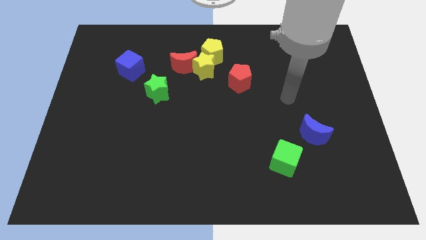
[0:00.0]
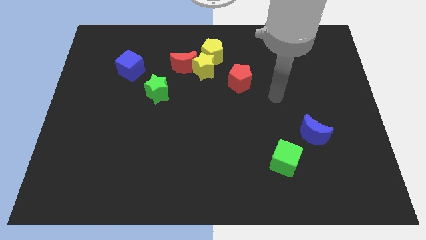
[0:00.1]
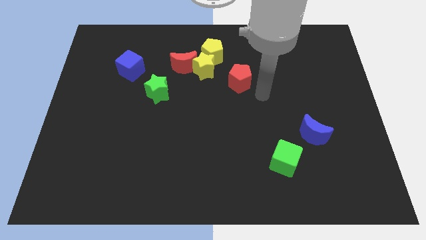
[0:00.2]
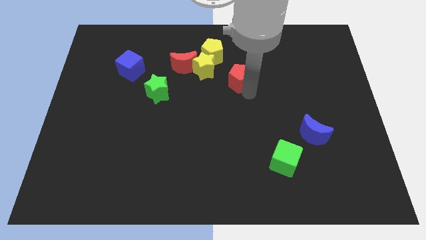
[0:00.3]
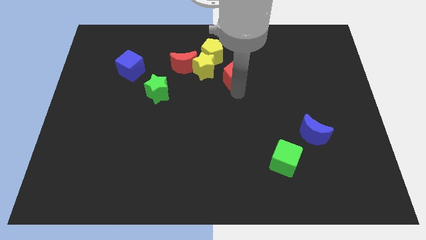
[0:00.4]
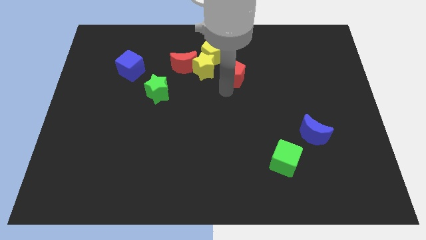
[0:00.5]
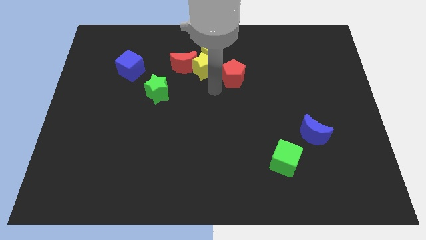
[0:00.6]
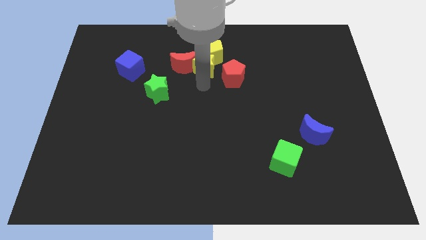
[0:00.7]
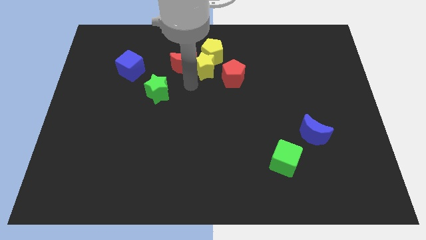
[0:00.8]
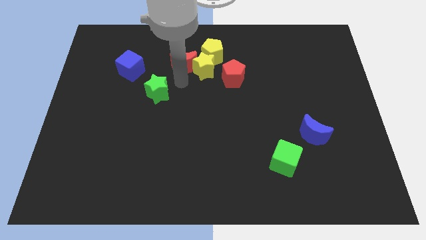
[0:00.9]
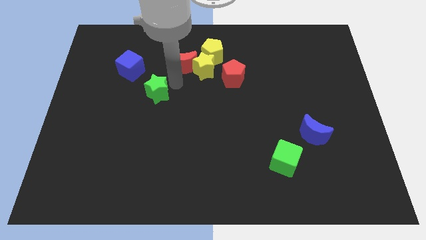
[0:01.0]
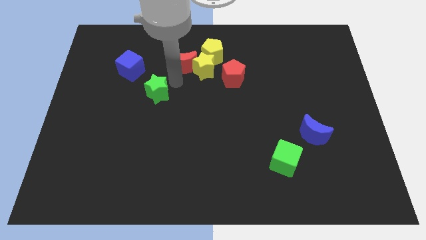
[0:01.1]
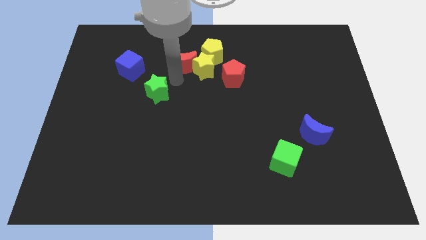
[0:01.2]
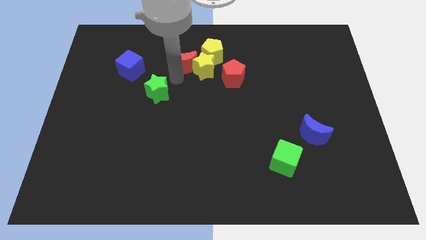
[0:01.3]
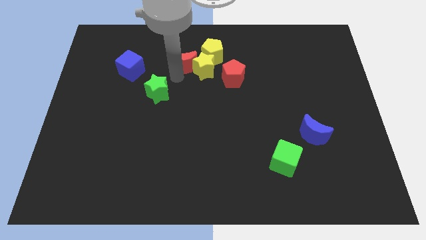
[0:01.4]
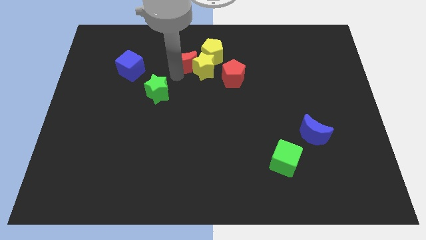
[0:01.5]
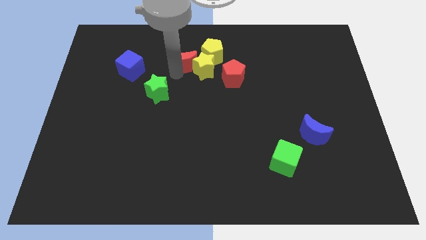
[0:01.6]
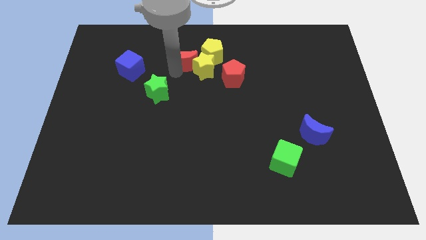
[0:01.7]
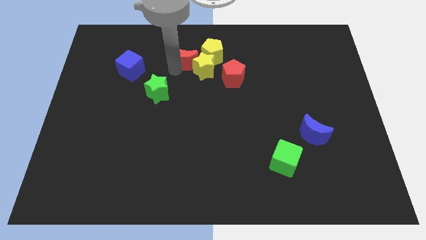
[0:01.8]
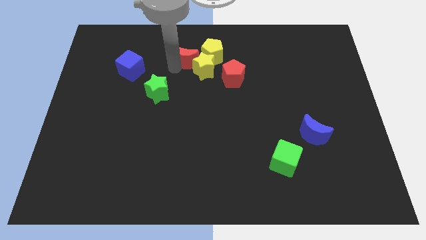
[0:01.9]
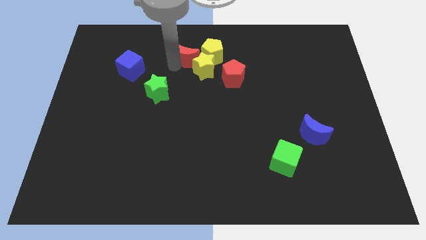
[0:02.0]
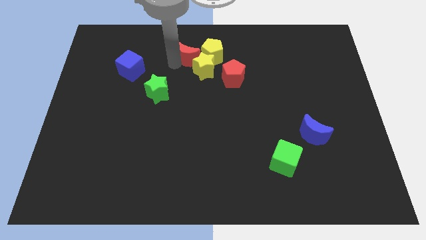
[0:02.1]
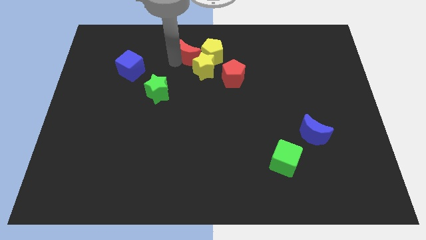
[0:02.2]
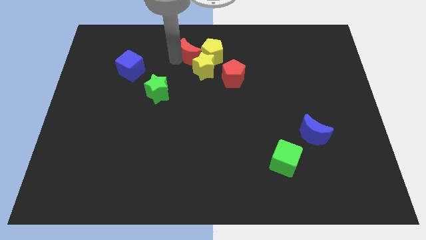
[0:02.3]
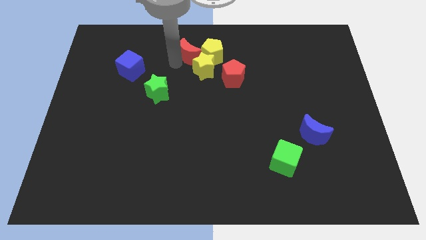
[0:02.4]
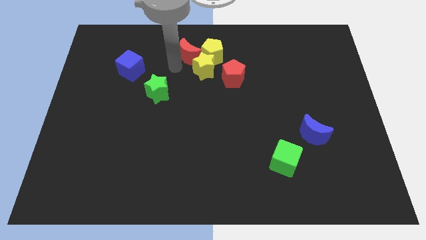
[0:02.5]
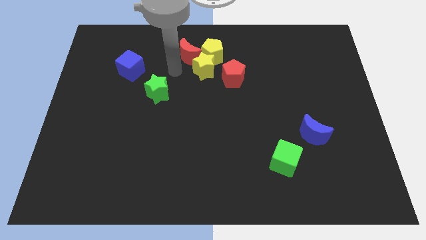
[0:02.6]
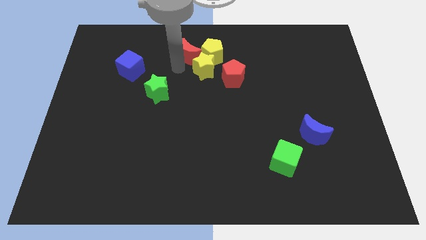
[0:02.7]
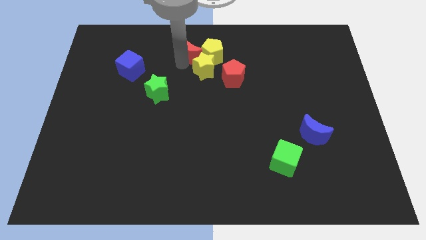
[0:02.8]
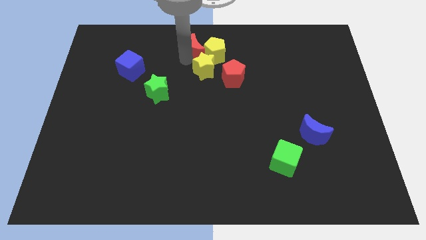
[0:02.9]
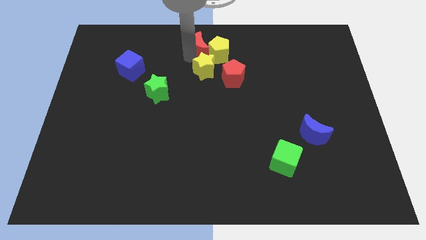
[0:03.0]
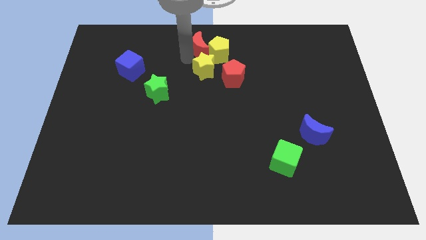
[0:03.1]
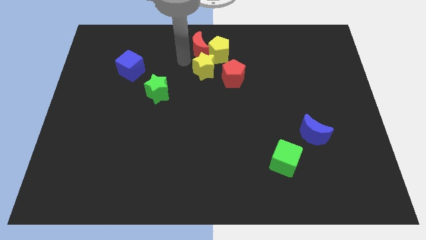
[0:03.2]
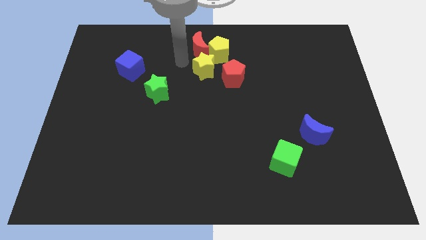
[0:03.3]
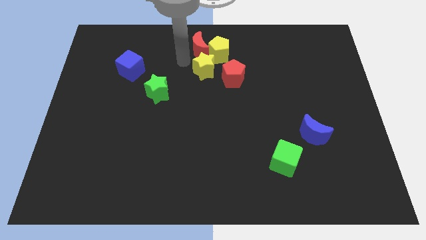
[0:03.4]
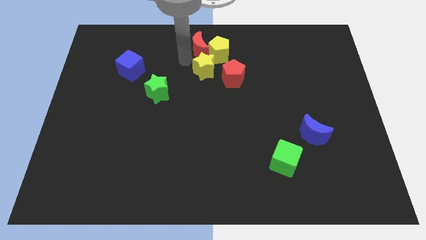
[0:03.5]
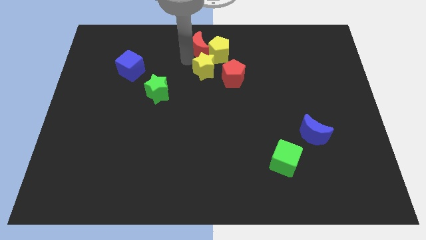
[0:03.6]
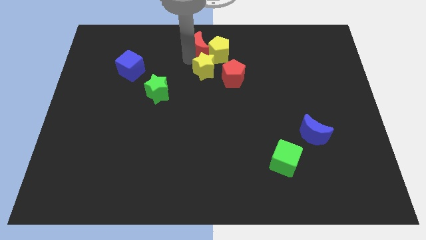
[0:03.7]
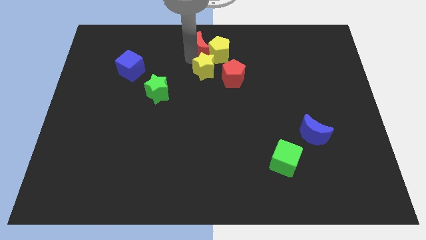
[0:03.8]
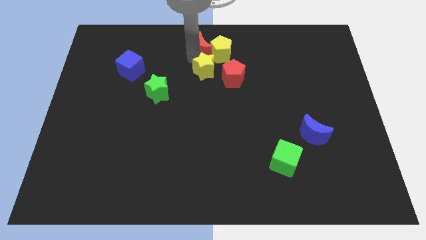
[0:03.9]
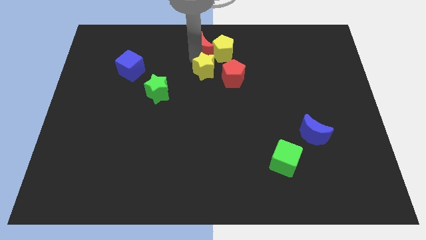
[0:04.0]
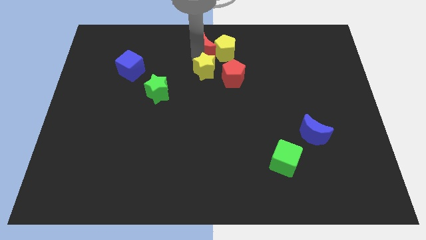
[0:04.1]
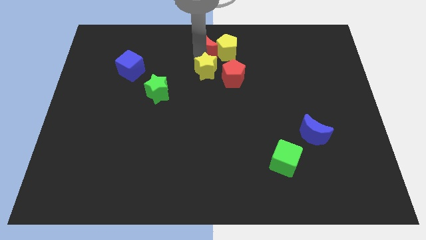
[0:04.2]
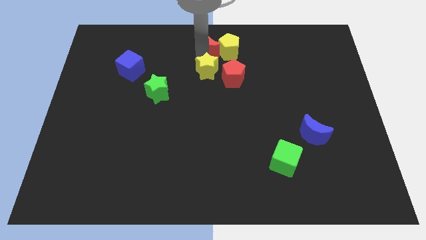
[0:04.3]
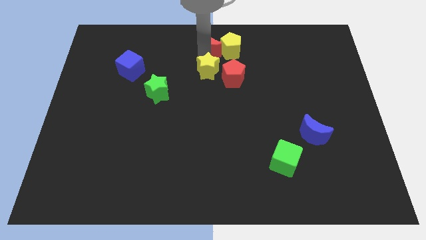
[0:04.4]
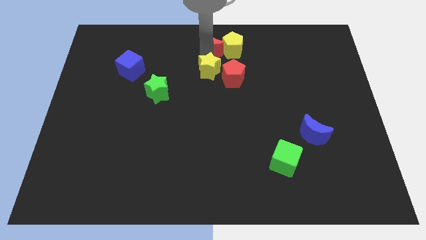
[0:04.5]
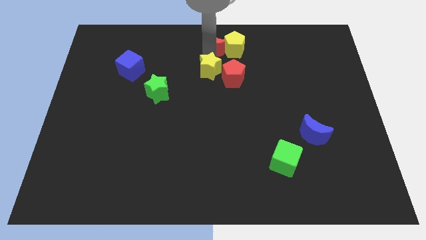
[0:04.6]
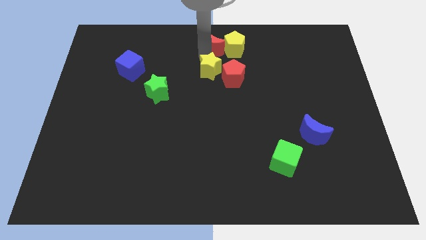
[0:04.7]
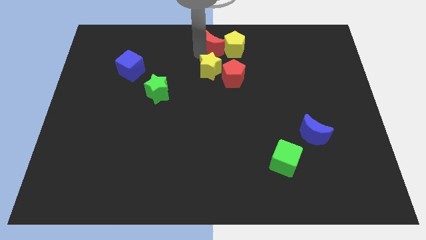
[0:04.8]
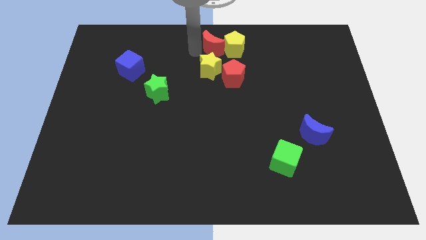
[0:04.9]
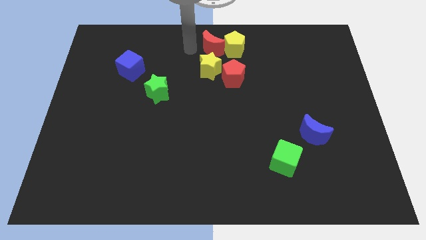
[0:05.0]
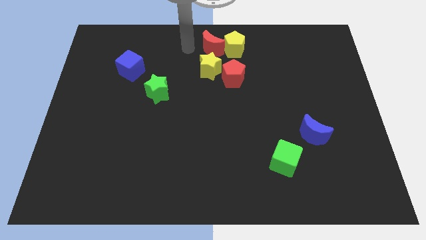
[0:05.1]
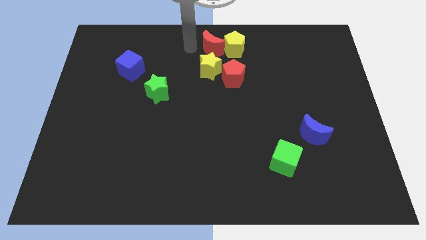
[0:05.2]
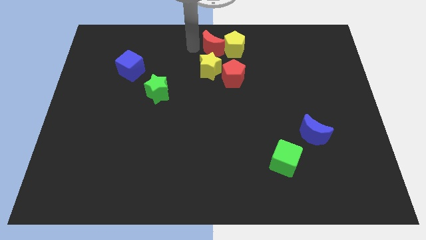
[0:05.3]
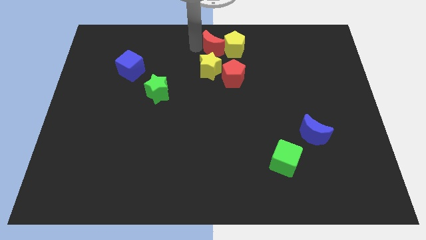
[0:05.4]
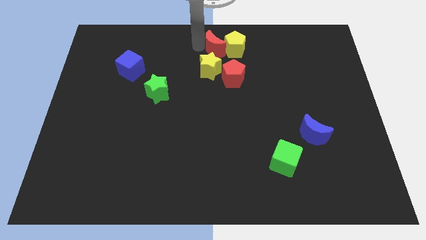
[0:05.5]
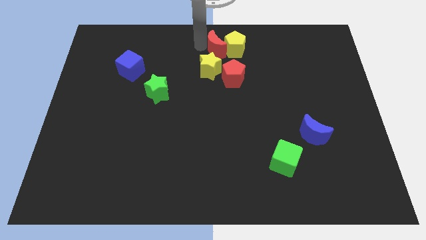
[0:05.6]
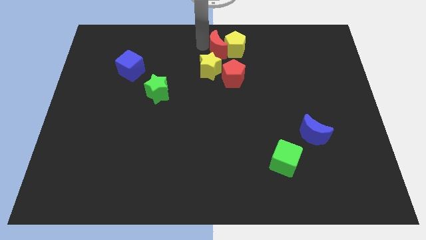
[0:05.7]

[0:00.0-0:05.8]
push the red moon right a little bit

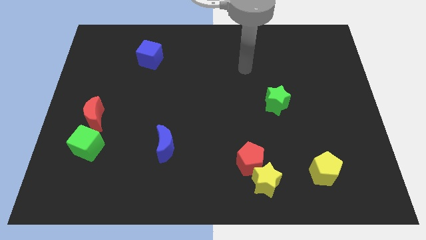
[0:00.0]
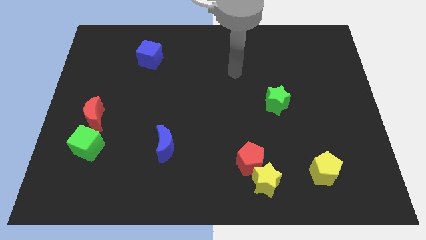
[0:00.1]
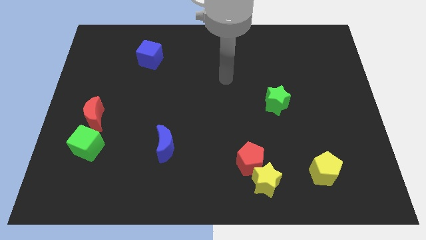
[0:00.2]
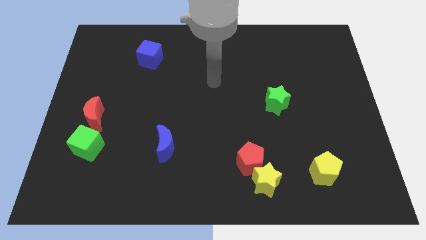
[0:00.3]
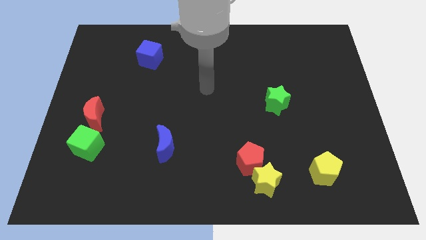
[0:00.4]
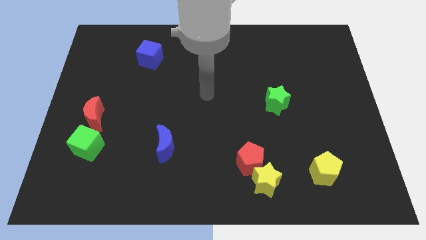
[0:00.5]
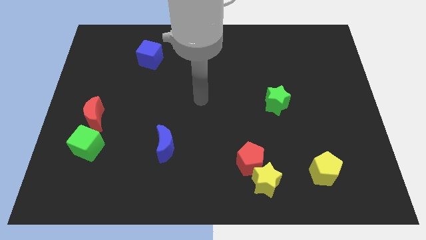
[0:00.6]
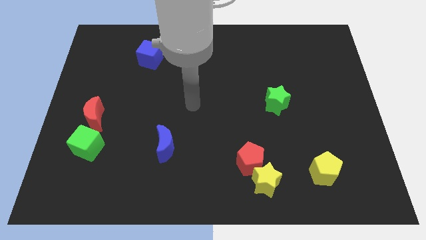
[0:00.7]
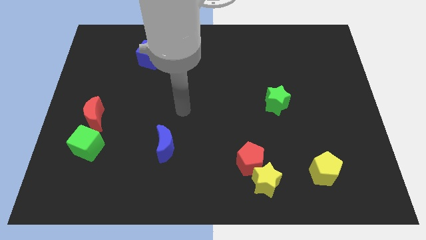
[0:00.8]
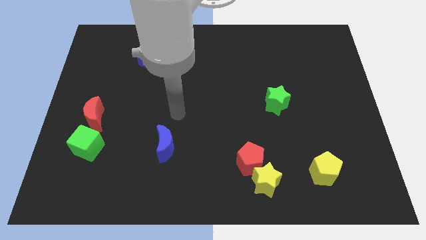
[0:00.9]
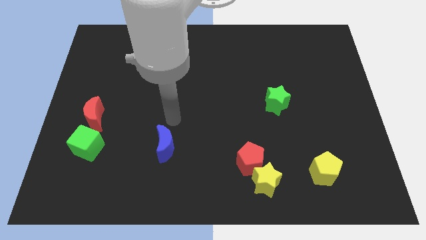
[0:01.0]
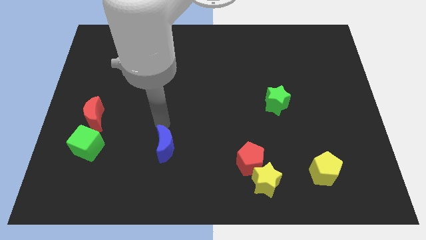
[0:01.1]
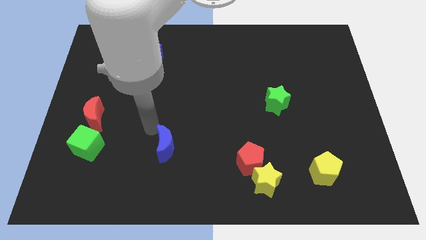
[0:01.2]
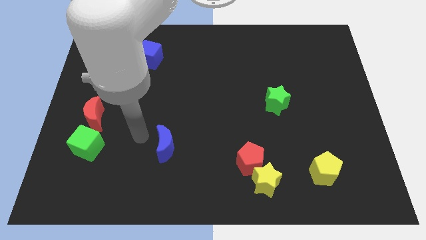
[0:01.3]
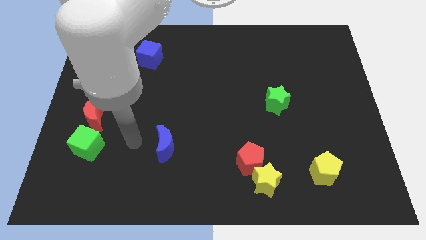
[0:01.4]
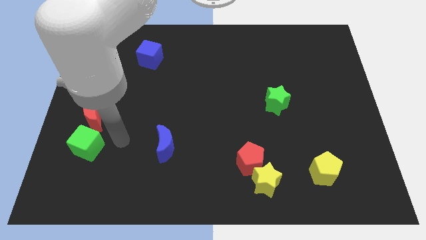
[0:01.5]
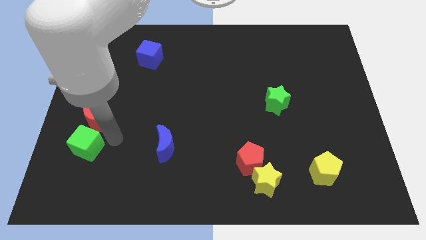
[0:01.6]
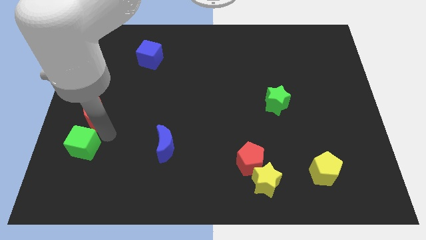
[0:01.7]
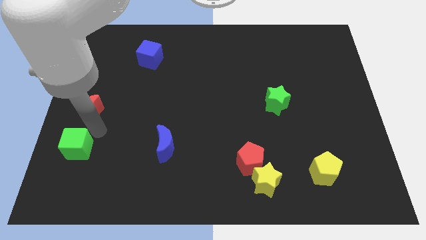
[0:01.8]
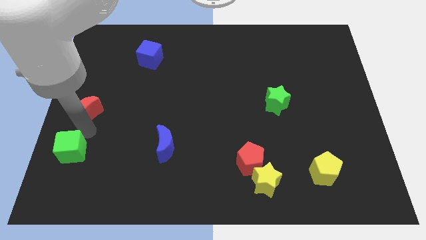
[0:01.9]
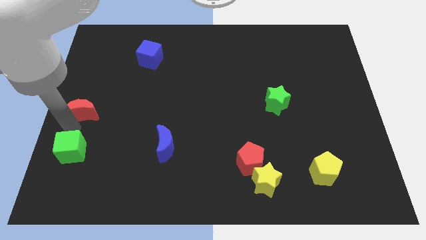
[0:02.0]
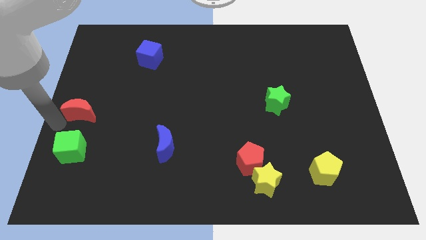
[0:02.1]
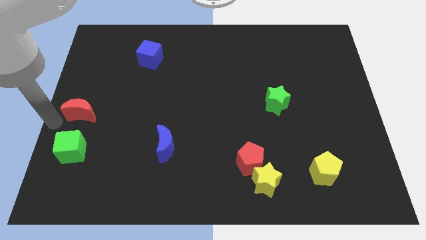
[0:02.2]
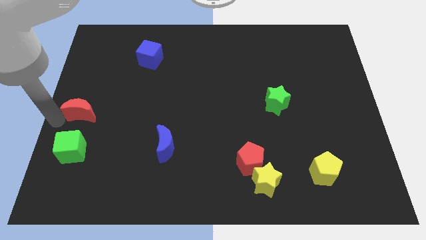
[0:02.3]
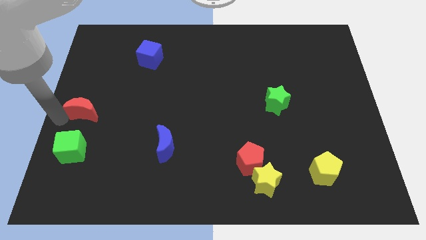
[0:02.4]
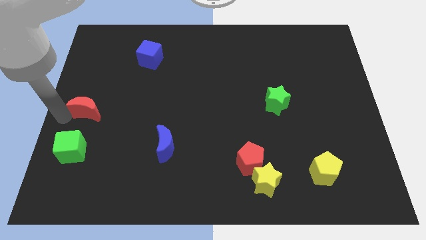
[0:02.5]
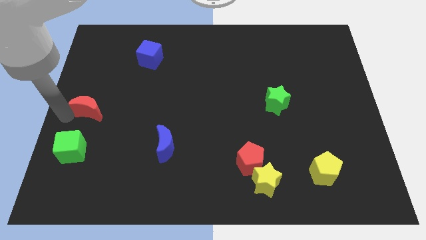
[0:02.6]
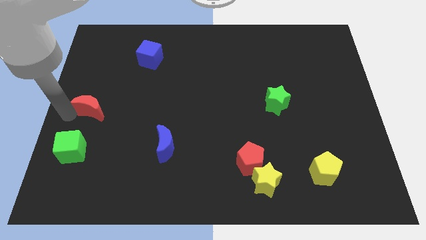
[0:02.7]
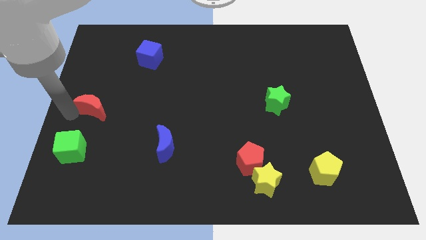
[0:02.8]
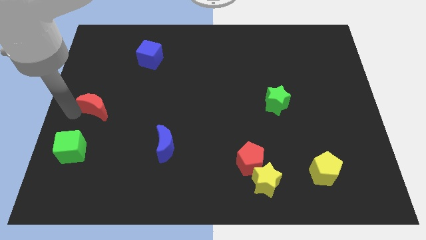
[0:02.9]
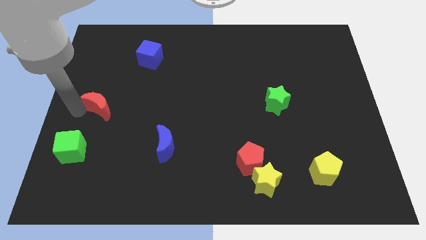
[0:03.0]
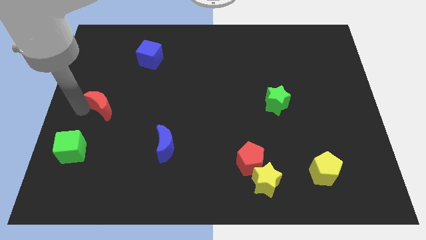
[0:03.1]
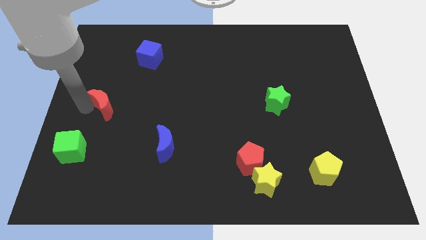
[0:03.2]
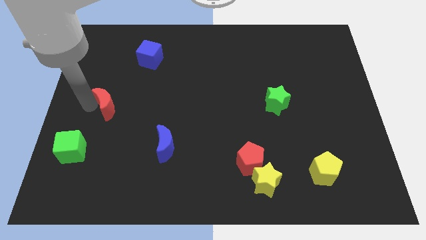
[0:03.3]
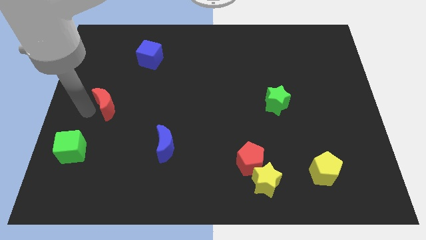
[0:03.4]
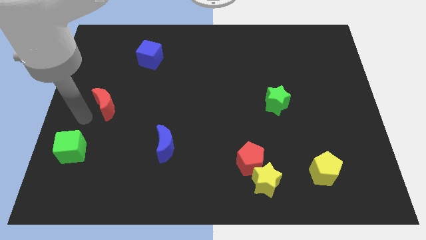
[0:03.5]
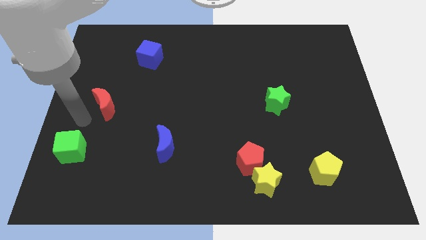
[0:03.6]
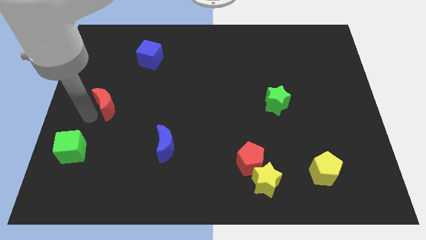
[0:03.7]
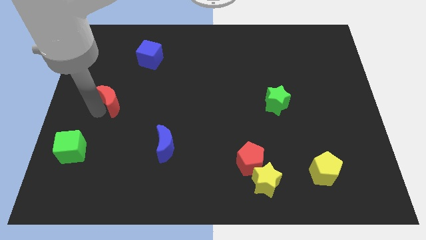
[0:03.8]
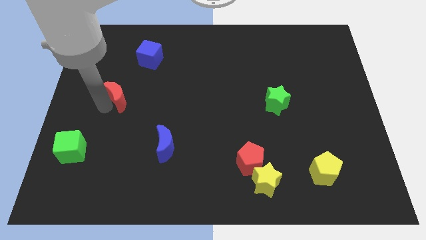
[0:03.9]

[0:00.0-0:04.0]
push the red moon a little bit up and then right
